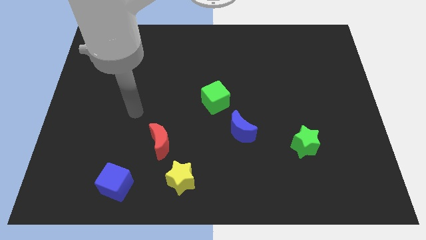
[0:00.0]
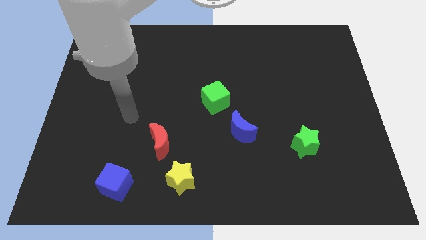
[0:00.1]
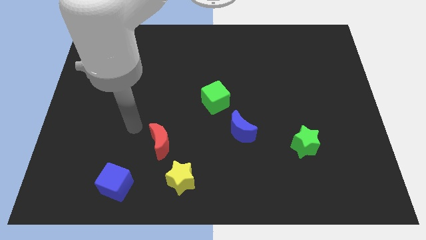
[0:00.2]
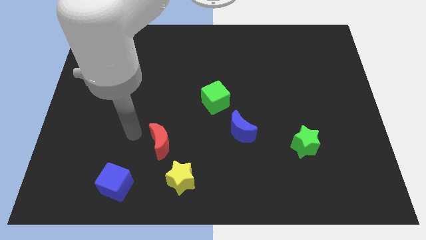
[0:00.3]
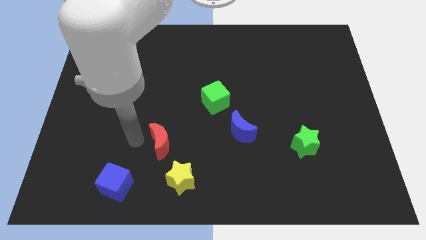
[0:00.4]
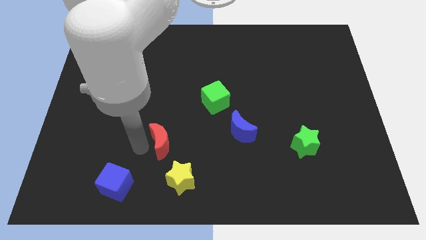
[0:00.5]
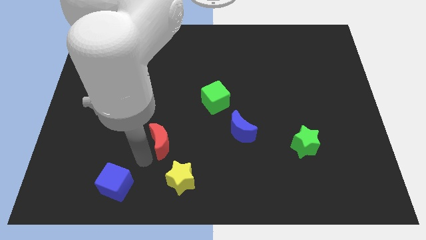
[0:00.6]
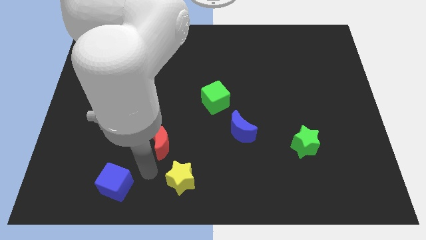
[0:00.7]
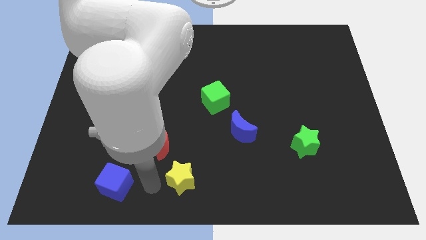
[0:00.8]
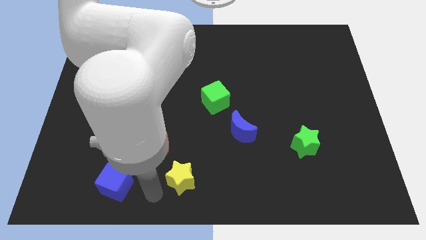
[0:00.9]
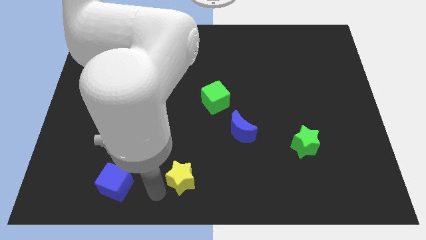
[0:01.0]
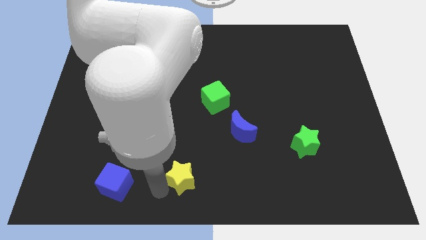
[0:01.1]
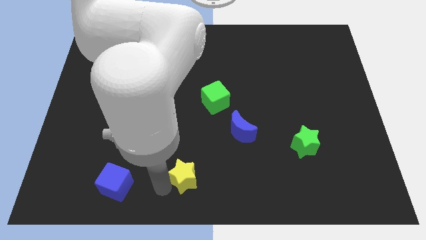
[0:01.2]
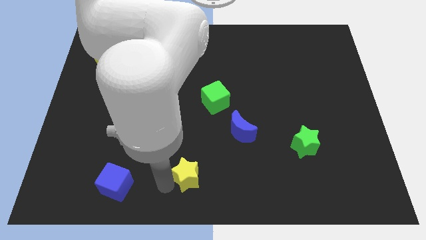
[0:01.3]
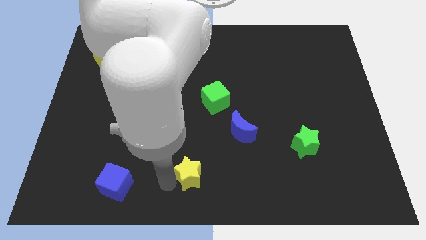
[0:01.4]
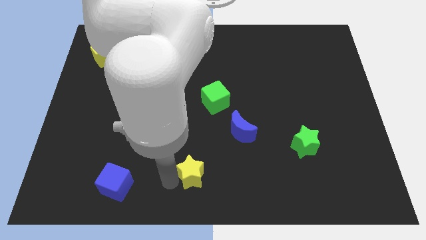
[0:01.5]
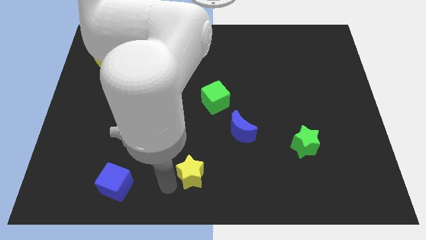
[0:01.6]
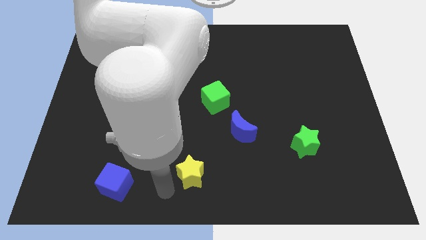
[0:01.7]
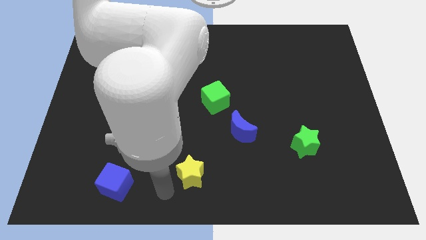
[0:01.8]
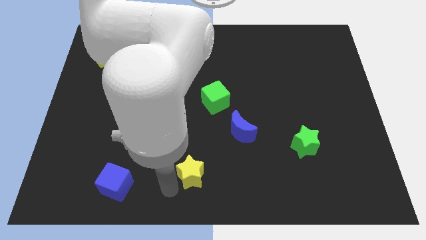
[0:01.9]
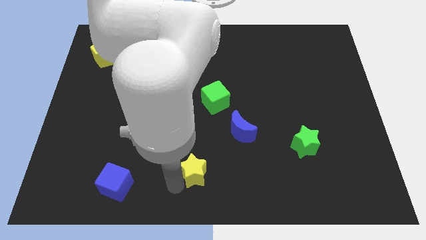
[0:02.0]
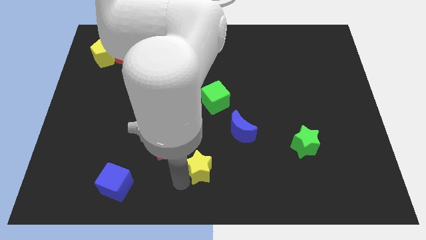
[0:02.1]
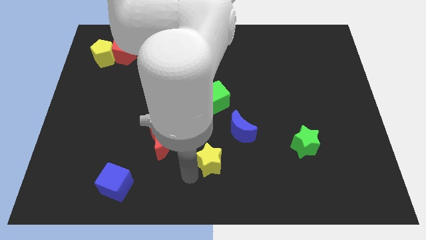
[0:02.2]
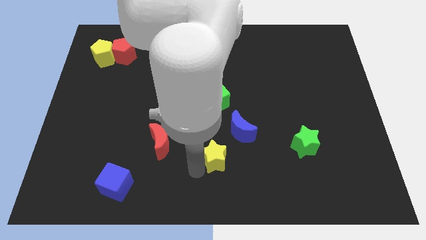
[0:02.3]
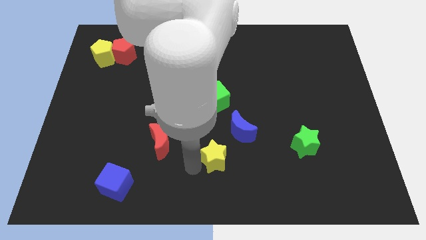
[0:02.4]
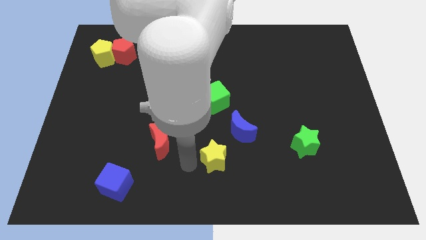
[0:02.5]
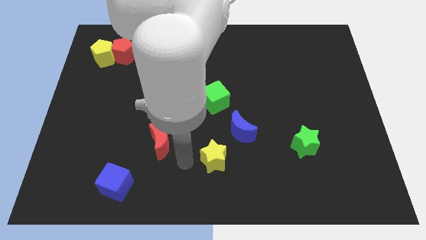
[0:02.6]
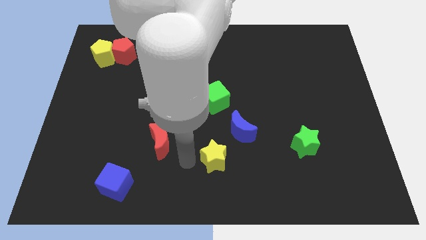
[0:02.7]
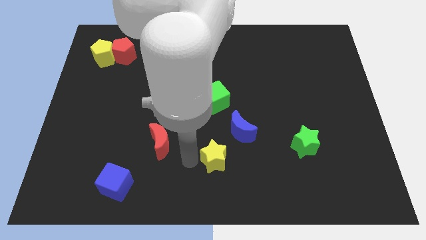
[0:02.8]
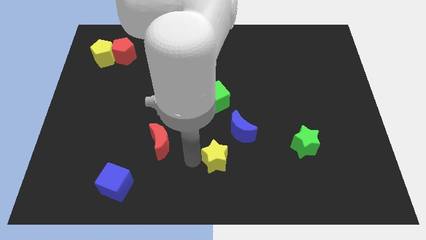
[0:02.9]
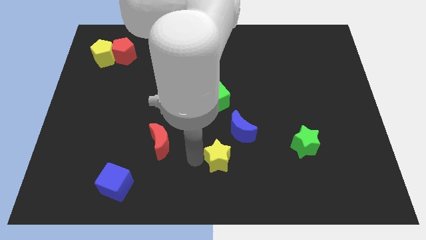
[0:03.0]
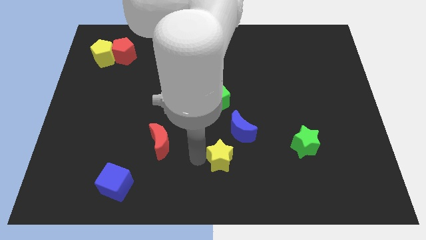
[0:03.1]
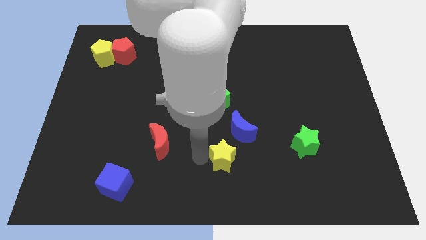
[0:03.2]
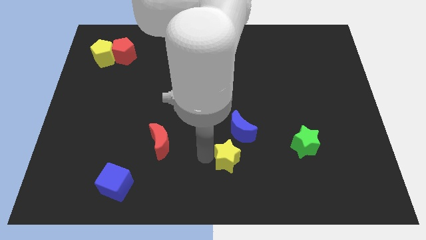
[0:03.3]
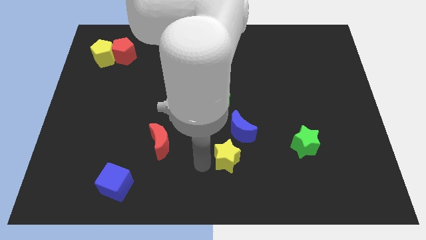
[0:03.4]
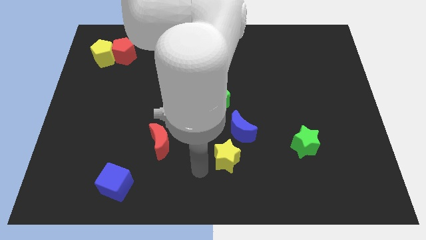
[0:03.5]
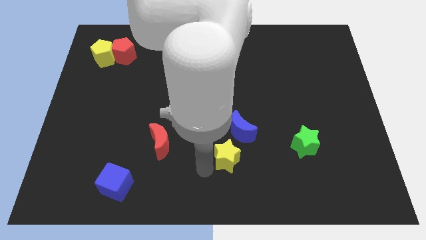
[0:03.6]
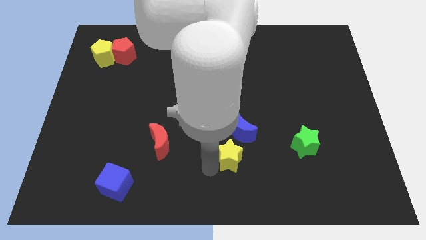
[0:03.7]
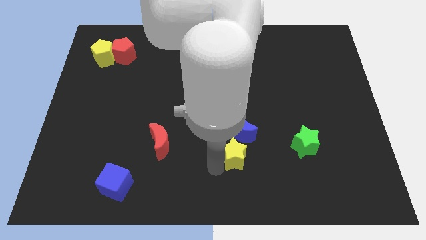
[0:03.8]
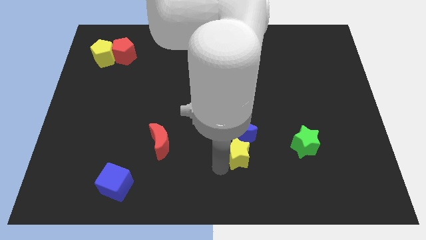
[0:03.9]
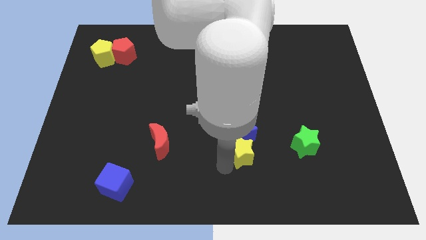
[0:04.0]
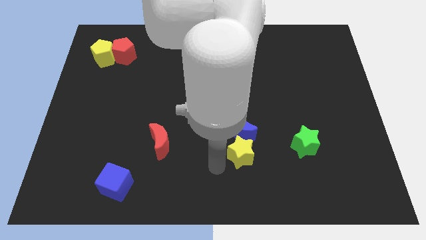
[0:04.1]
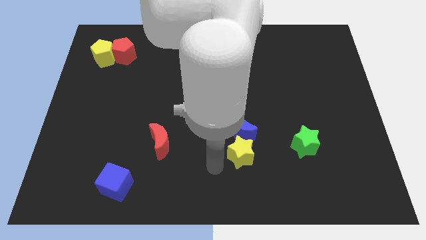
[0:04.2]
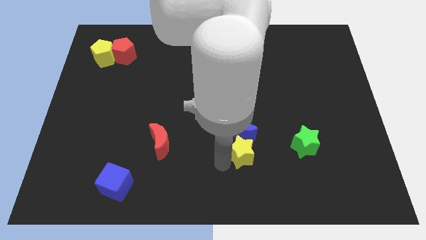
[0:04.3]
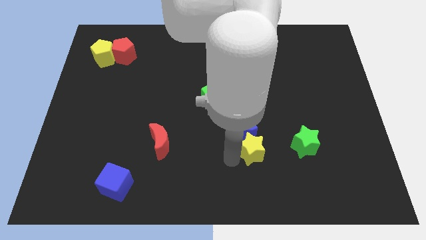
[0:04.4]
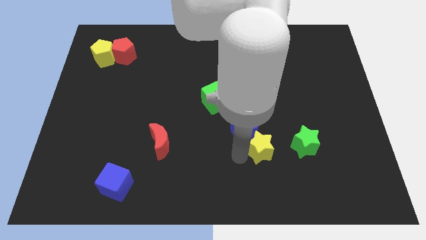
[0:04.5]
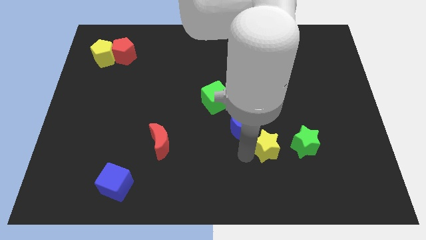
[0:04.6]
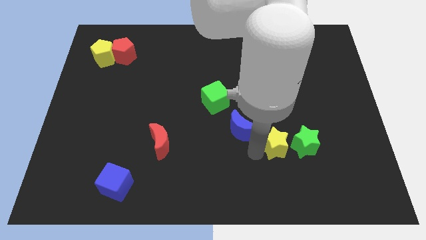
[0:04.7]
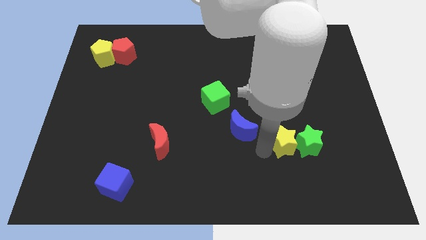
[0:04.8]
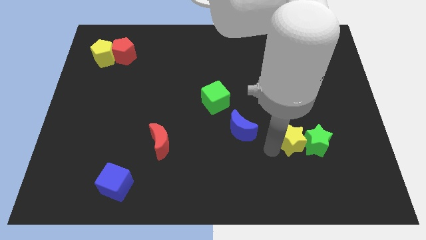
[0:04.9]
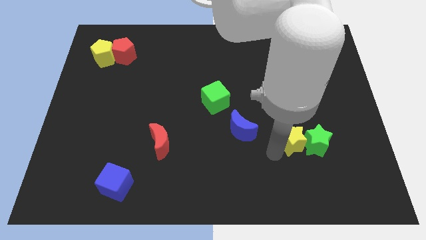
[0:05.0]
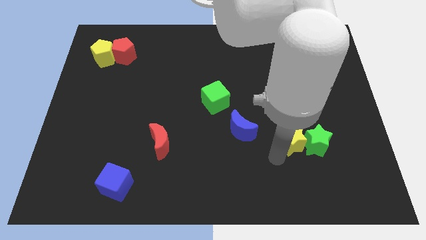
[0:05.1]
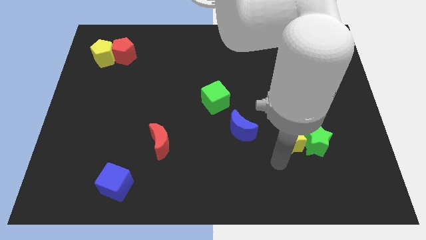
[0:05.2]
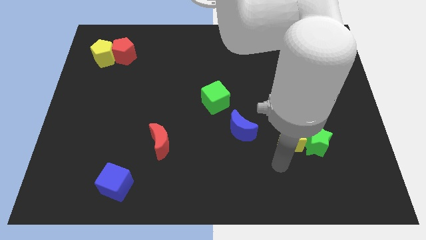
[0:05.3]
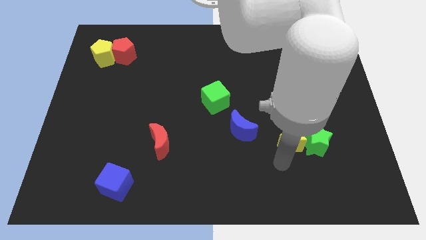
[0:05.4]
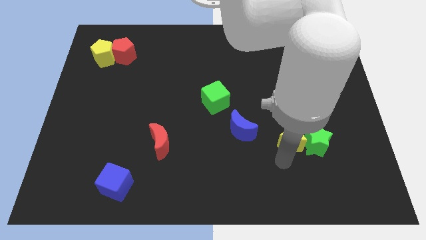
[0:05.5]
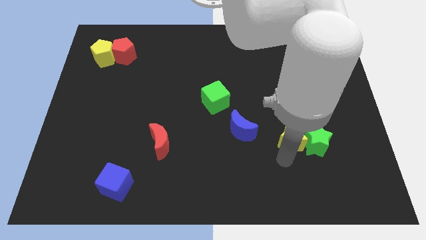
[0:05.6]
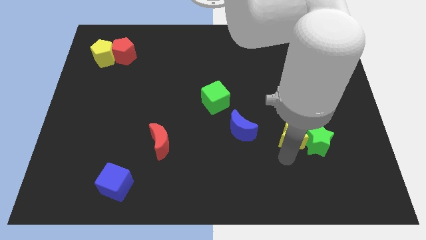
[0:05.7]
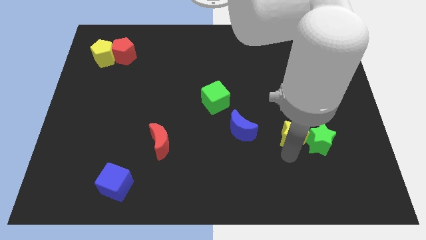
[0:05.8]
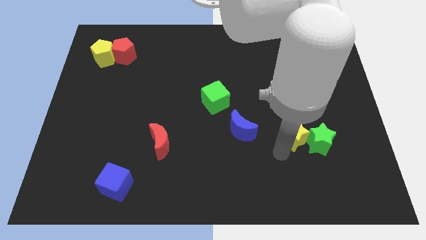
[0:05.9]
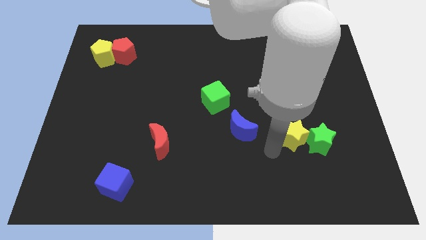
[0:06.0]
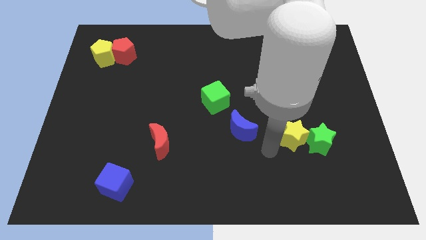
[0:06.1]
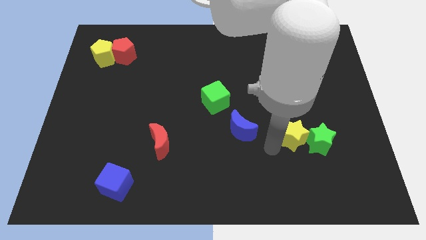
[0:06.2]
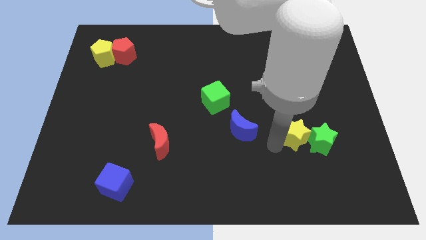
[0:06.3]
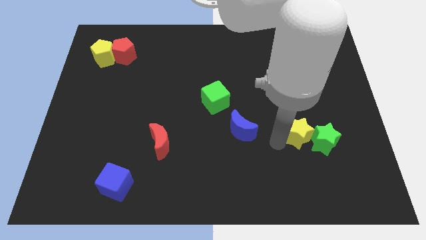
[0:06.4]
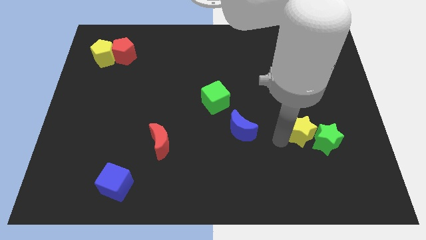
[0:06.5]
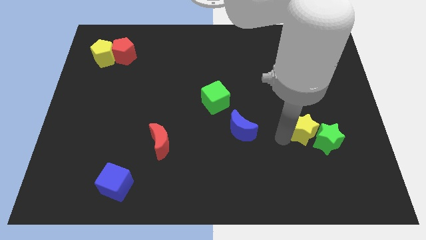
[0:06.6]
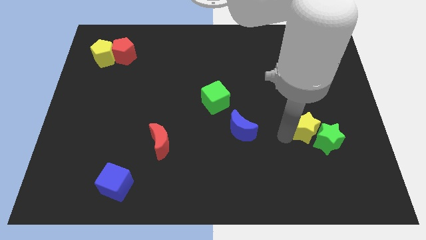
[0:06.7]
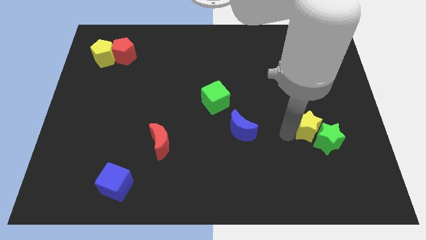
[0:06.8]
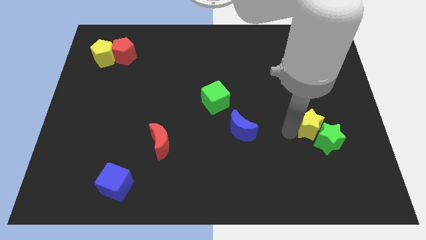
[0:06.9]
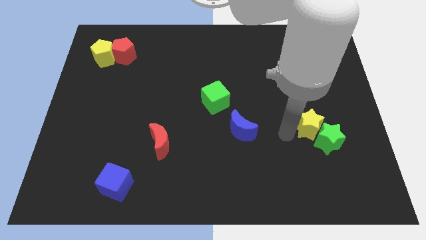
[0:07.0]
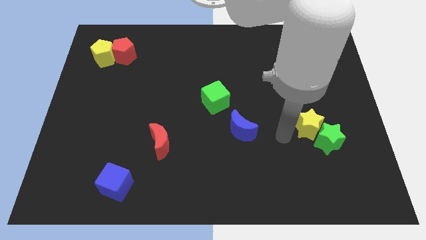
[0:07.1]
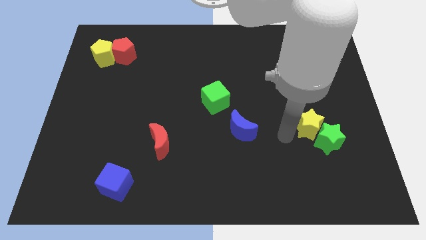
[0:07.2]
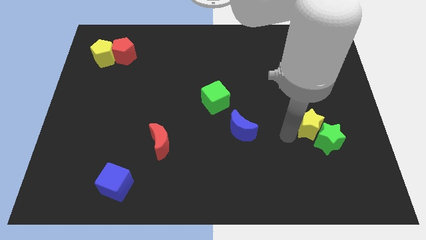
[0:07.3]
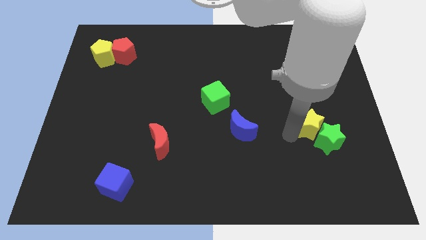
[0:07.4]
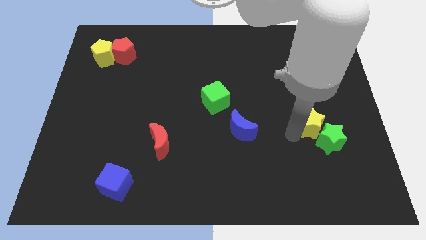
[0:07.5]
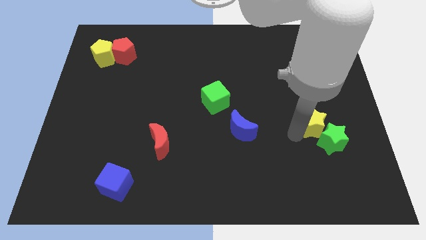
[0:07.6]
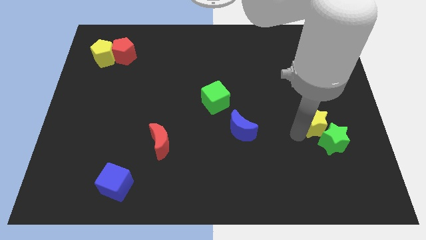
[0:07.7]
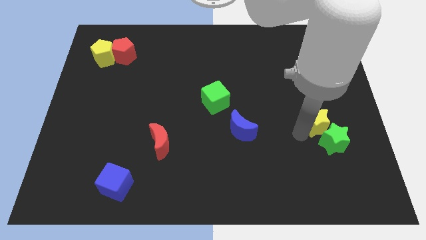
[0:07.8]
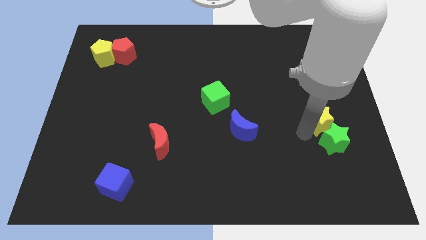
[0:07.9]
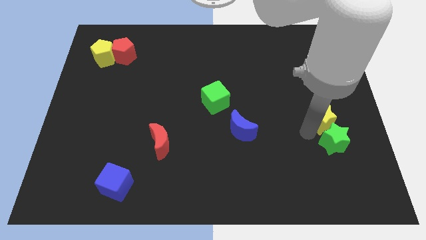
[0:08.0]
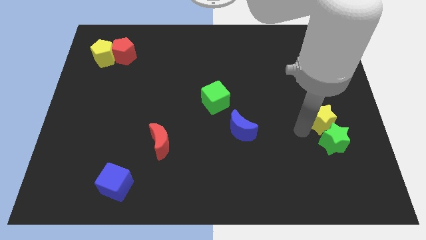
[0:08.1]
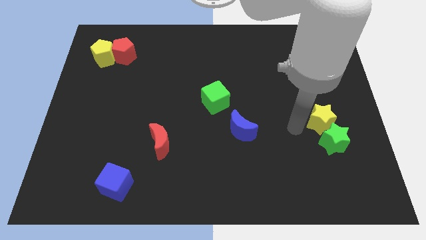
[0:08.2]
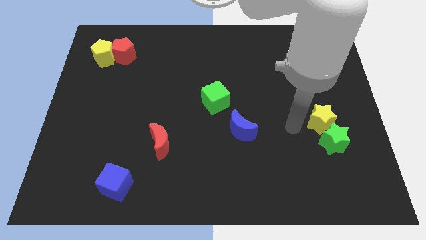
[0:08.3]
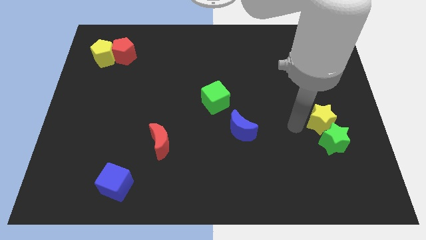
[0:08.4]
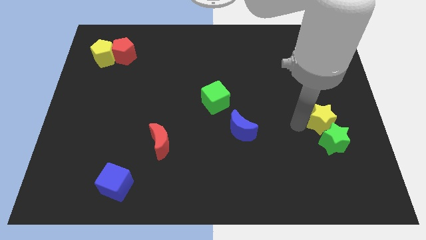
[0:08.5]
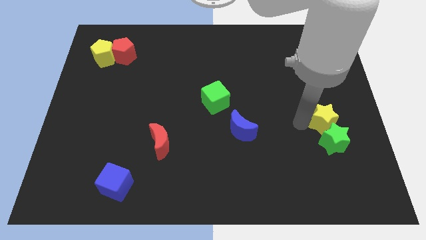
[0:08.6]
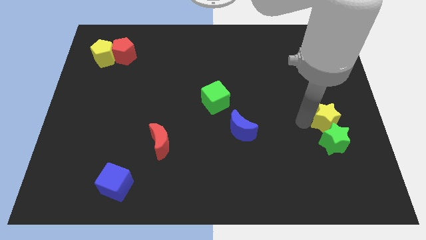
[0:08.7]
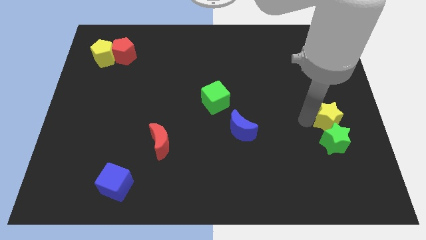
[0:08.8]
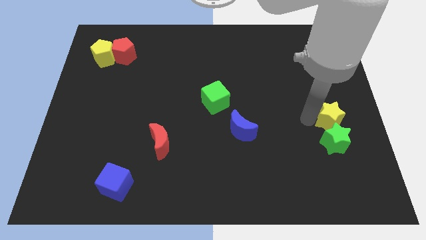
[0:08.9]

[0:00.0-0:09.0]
push the yellow star to the center right
